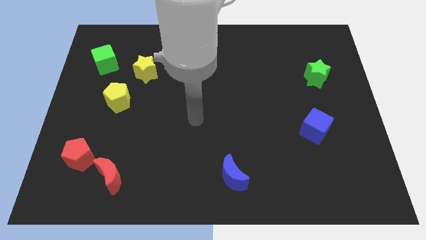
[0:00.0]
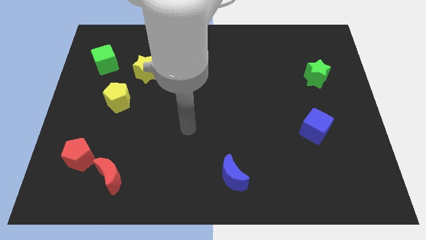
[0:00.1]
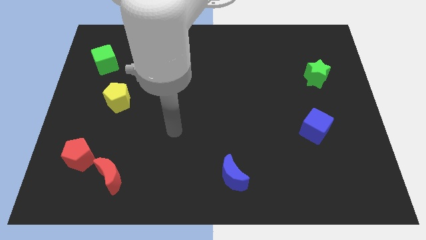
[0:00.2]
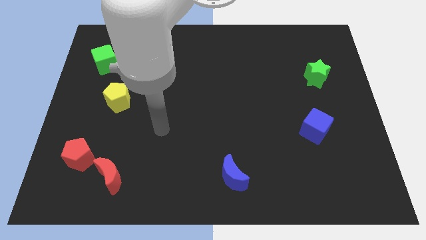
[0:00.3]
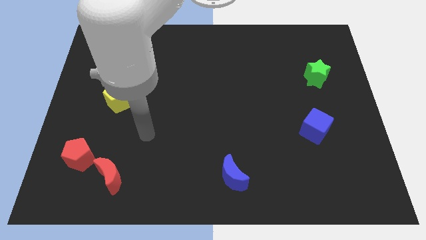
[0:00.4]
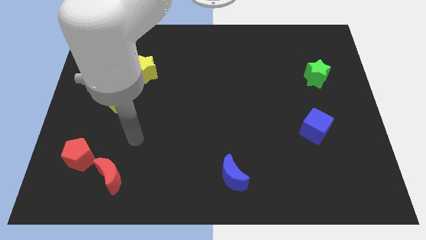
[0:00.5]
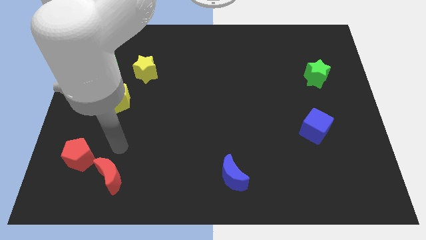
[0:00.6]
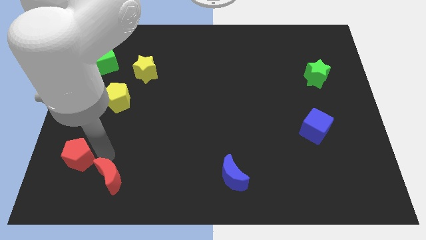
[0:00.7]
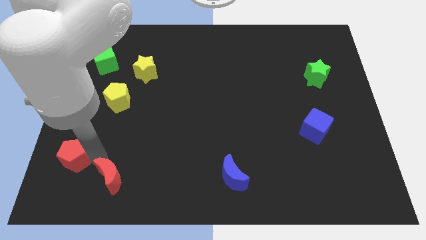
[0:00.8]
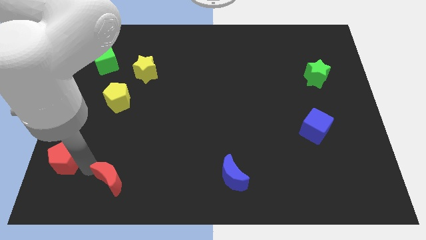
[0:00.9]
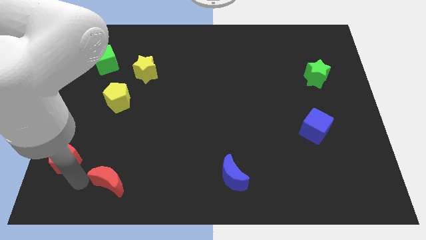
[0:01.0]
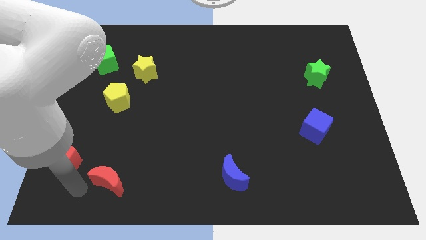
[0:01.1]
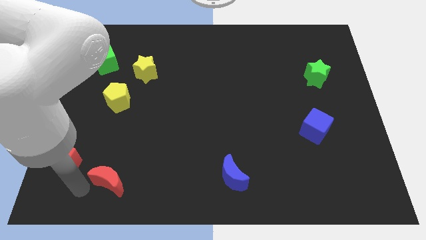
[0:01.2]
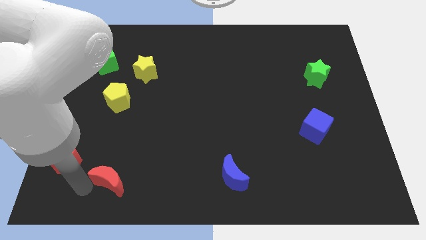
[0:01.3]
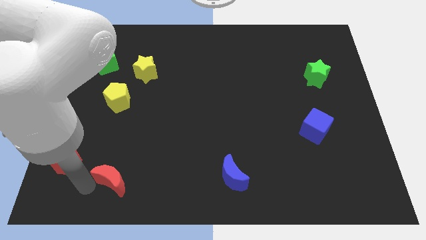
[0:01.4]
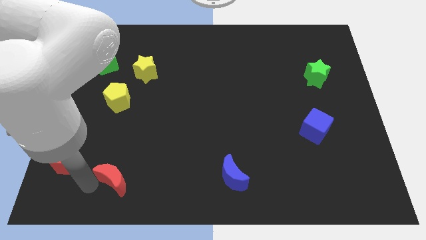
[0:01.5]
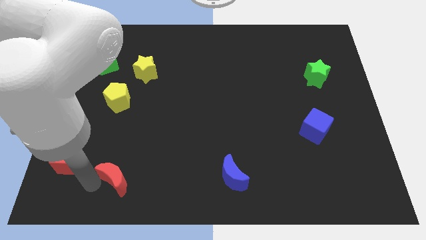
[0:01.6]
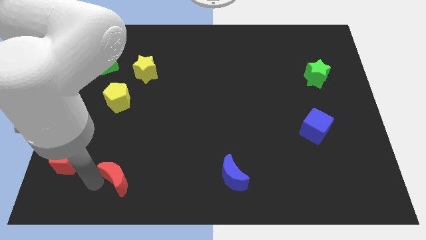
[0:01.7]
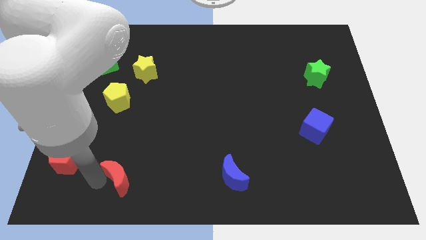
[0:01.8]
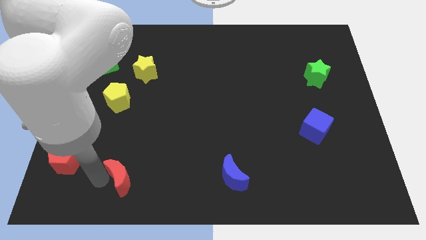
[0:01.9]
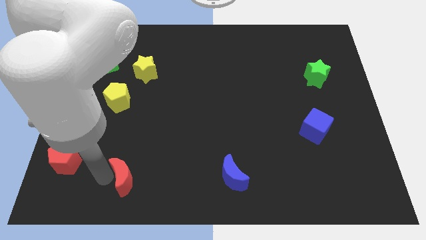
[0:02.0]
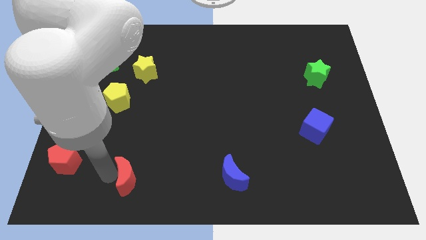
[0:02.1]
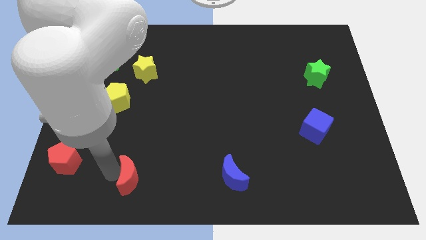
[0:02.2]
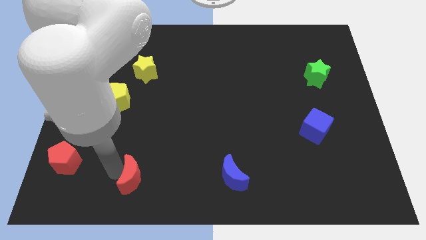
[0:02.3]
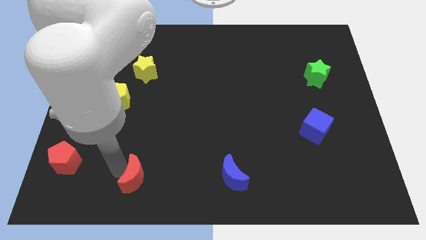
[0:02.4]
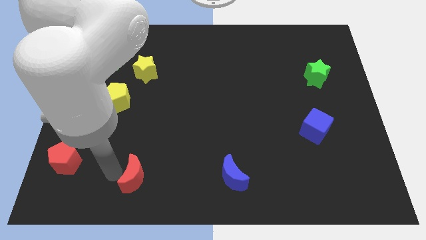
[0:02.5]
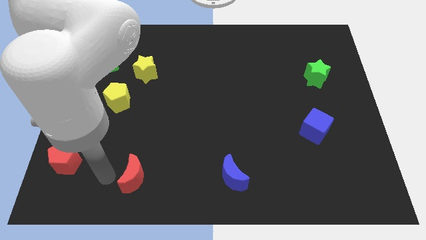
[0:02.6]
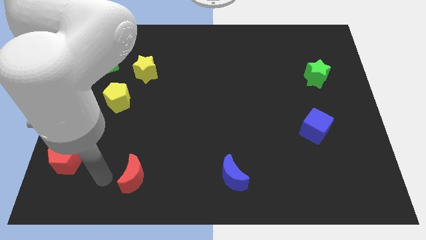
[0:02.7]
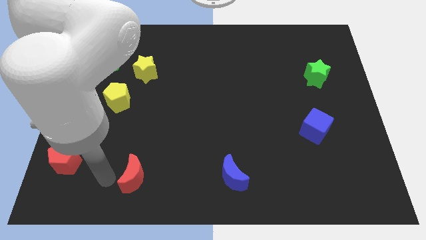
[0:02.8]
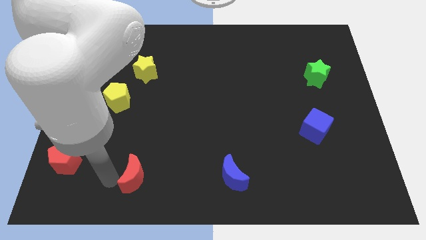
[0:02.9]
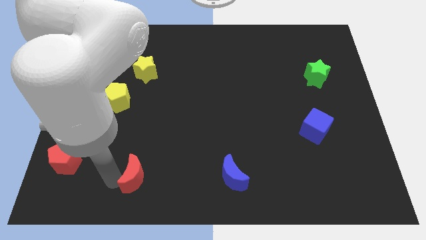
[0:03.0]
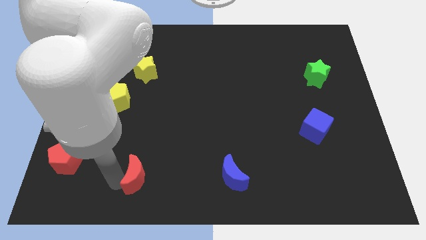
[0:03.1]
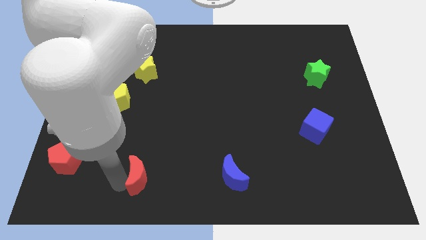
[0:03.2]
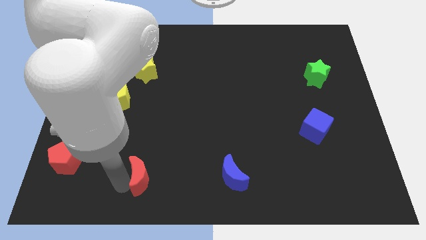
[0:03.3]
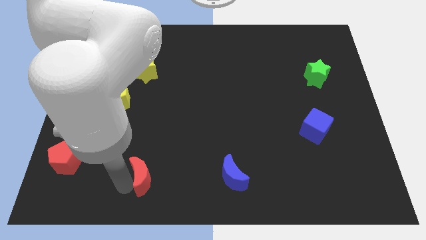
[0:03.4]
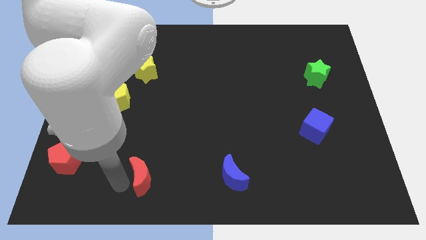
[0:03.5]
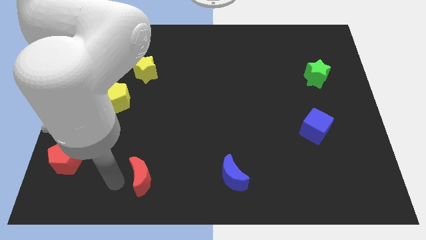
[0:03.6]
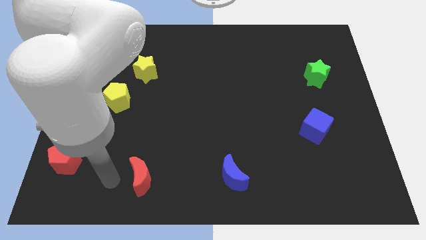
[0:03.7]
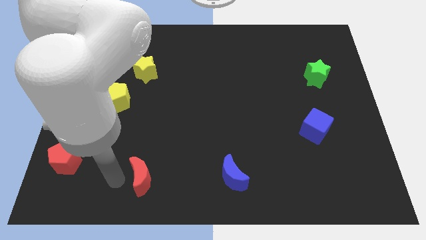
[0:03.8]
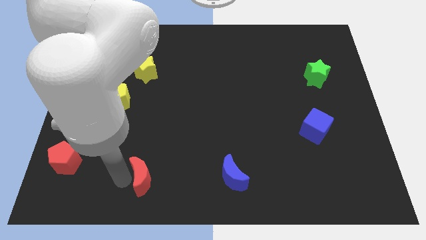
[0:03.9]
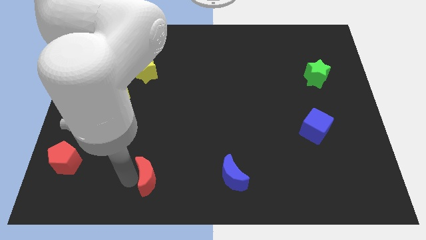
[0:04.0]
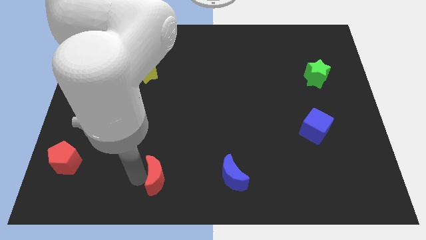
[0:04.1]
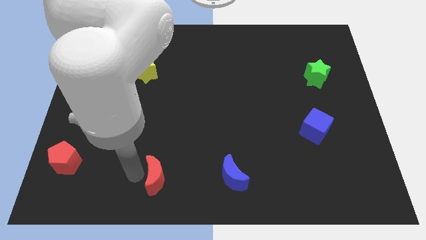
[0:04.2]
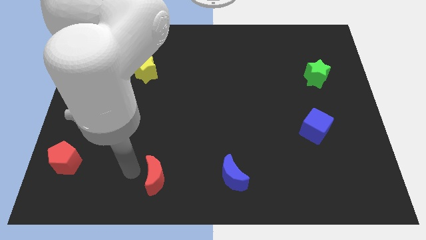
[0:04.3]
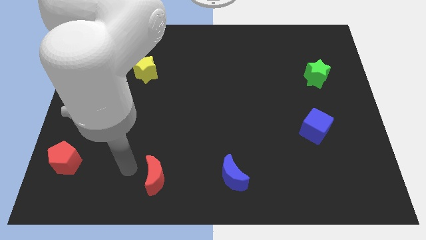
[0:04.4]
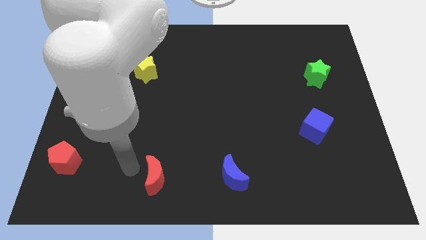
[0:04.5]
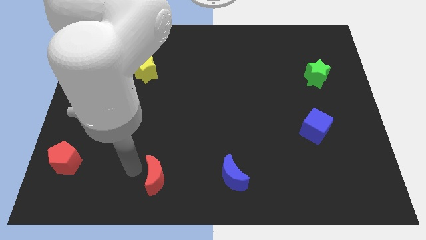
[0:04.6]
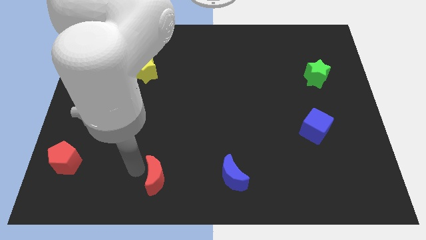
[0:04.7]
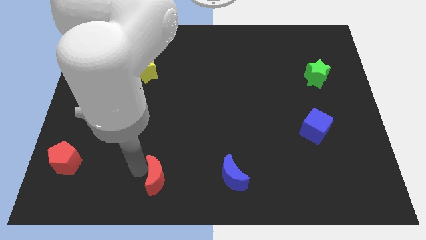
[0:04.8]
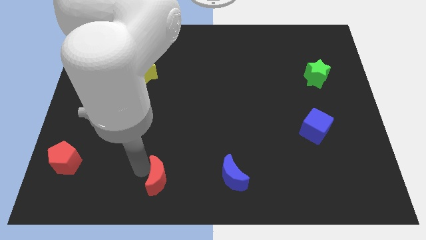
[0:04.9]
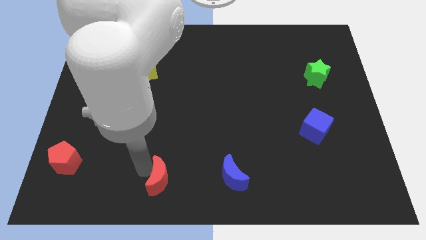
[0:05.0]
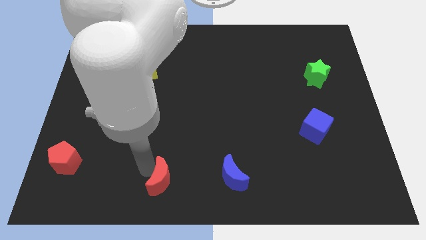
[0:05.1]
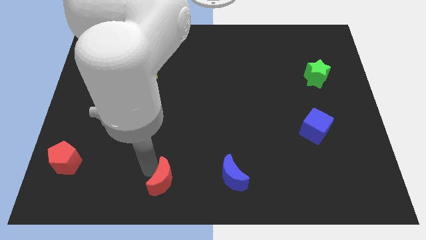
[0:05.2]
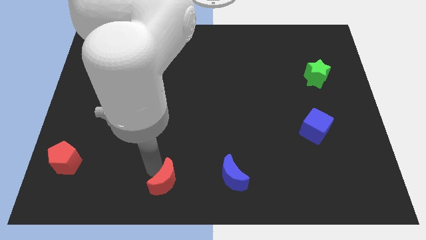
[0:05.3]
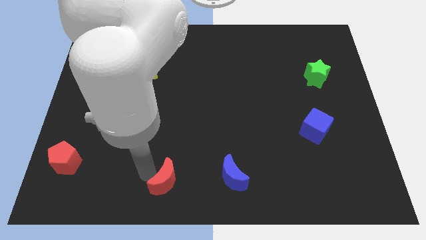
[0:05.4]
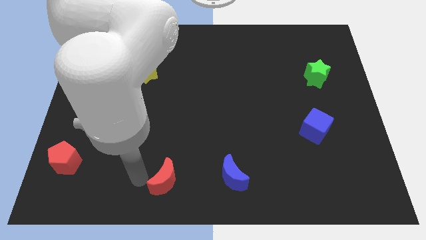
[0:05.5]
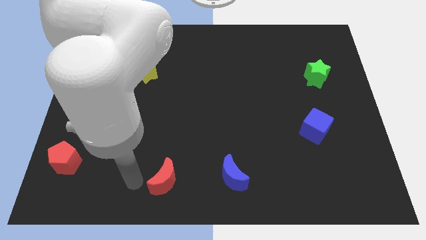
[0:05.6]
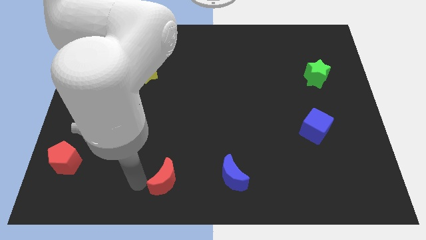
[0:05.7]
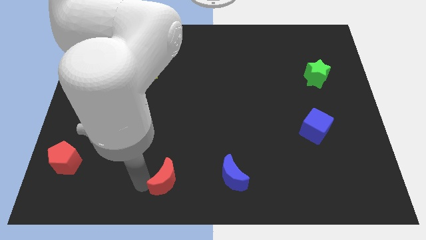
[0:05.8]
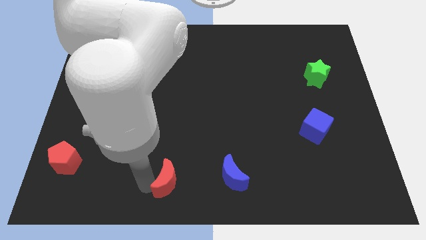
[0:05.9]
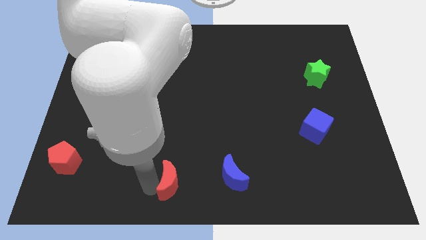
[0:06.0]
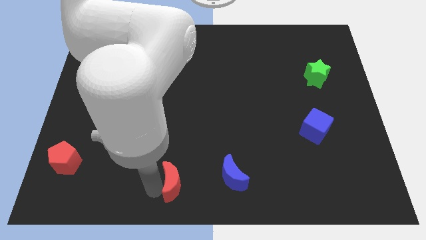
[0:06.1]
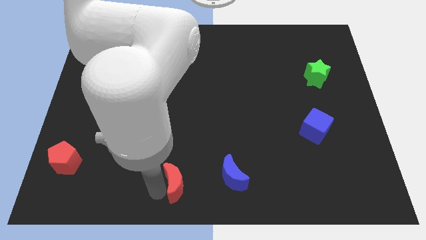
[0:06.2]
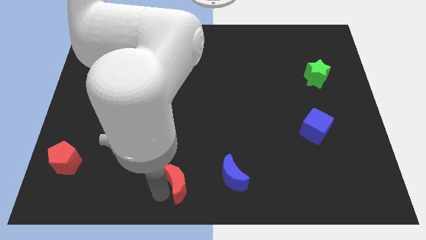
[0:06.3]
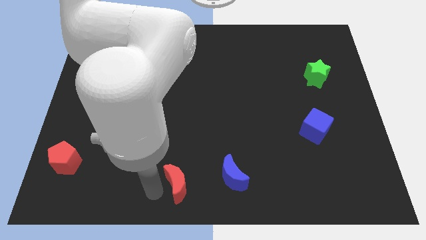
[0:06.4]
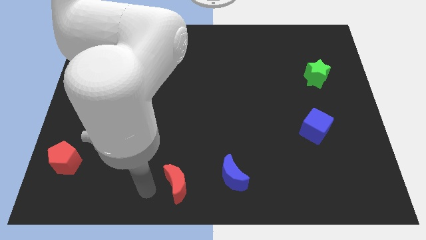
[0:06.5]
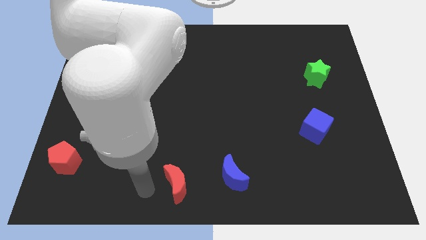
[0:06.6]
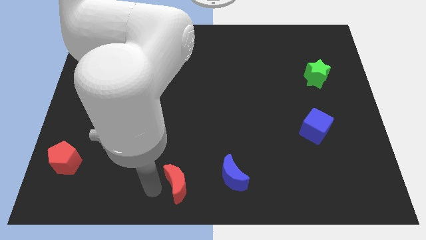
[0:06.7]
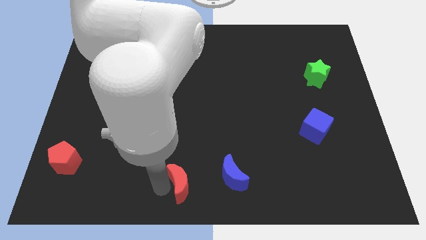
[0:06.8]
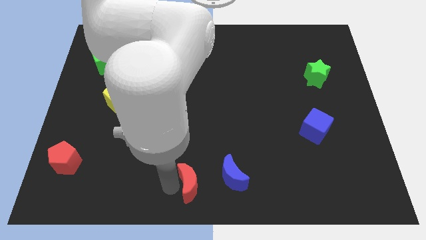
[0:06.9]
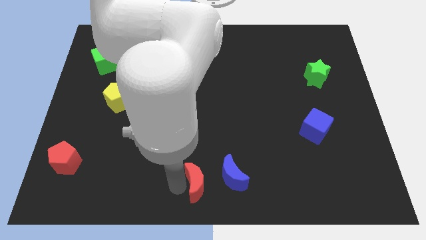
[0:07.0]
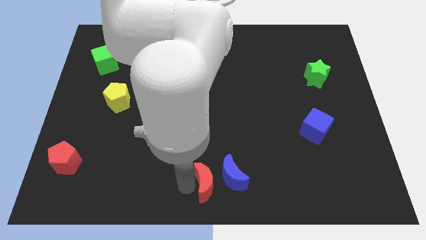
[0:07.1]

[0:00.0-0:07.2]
move the red moon close to the blue moon
